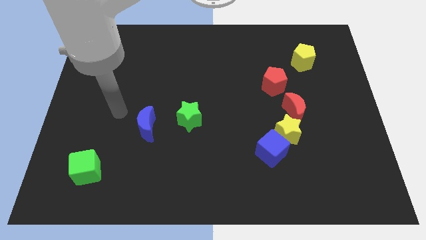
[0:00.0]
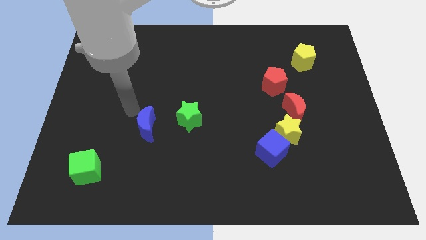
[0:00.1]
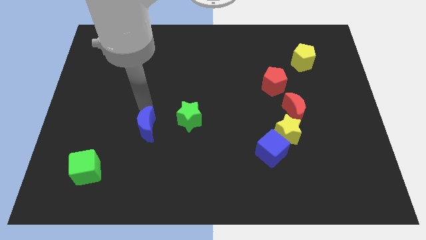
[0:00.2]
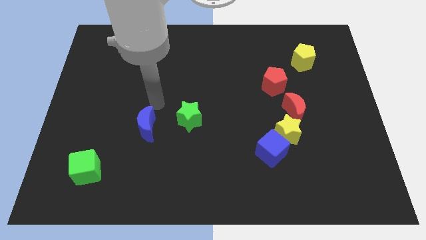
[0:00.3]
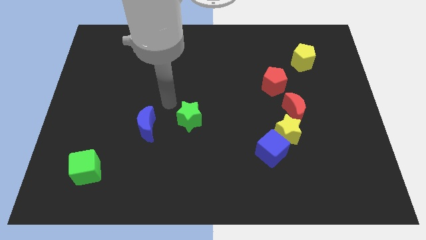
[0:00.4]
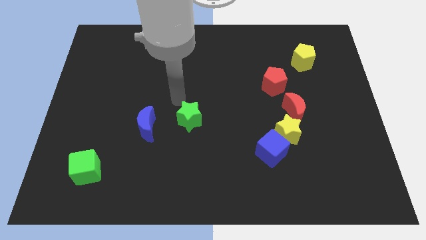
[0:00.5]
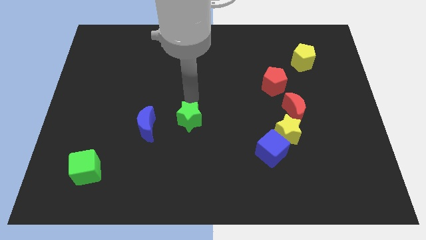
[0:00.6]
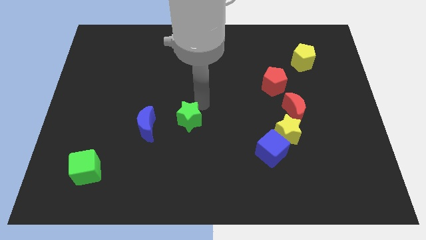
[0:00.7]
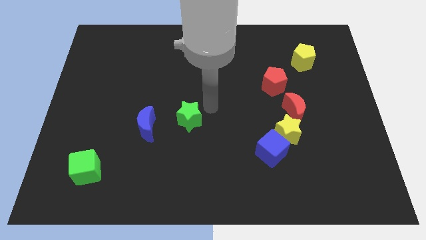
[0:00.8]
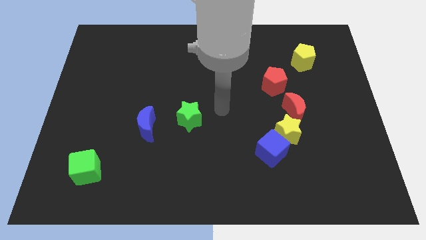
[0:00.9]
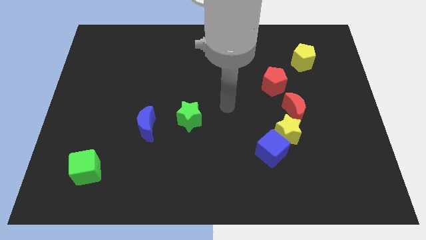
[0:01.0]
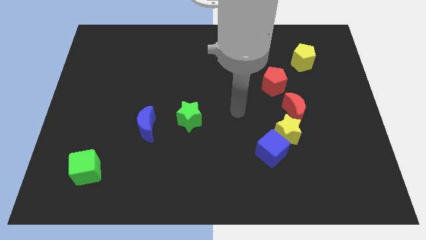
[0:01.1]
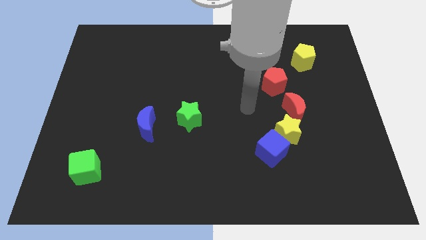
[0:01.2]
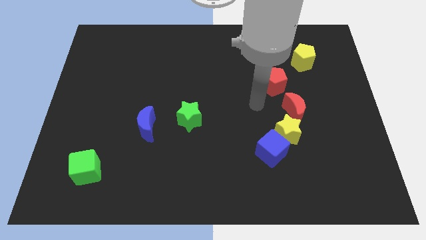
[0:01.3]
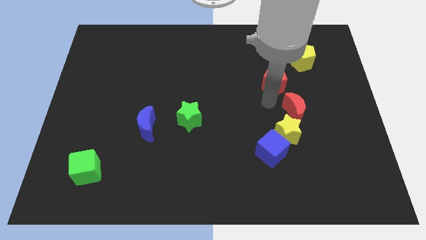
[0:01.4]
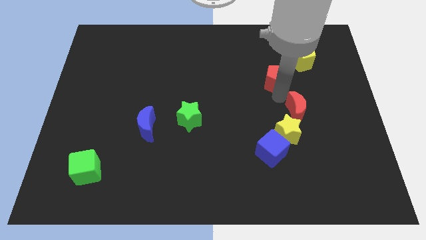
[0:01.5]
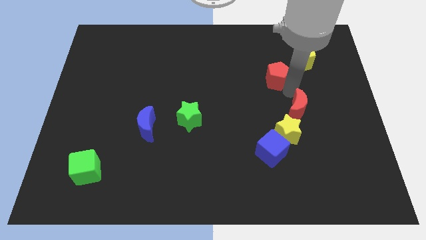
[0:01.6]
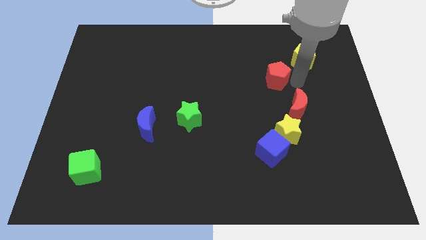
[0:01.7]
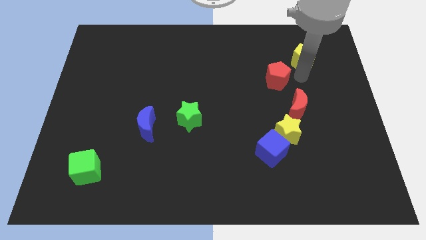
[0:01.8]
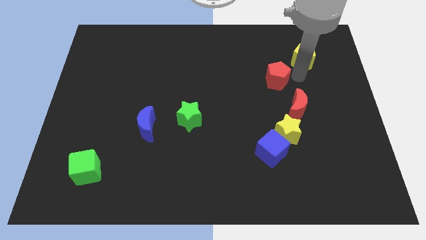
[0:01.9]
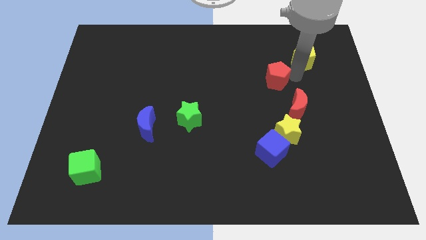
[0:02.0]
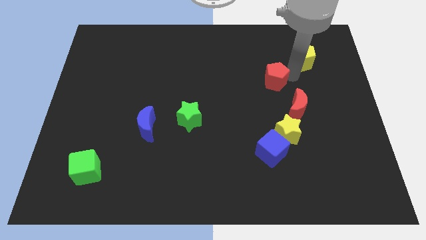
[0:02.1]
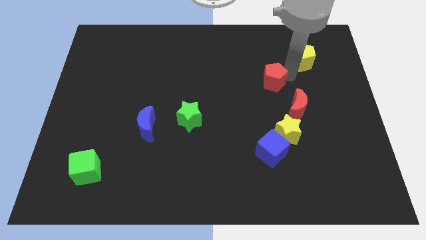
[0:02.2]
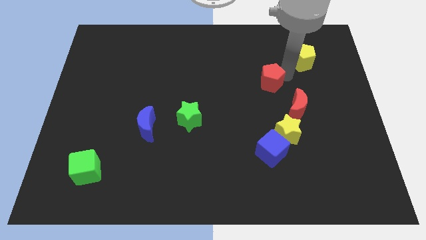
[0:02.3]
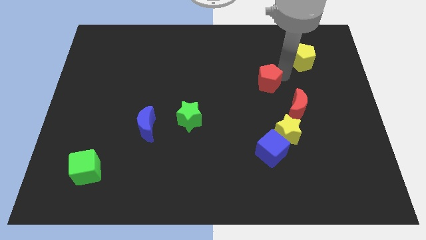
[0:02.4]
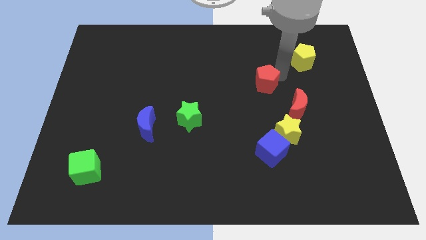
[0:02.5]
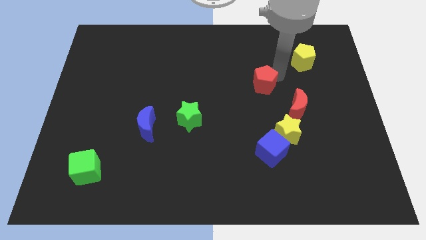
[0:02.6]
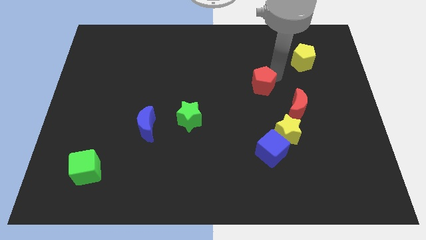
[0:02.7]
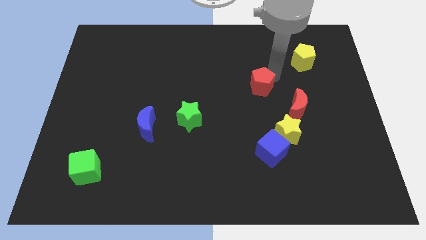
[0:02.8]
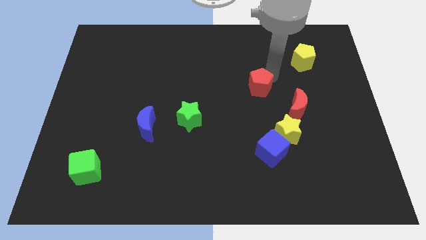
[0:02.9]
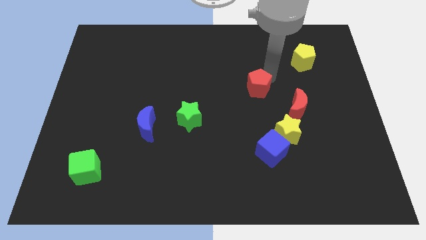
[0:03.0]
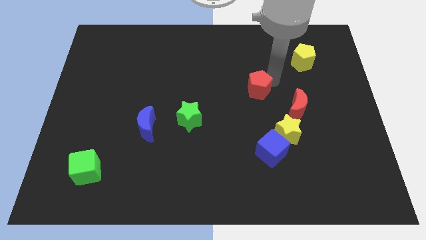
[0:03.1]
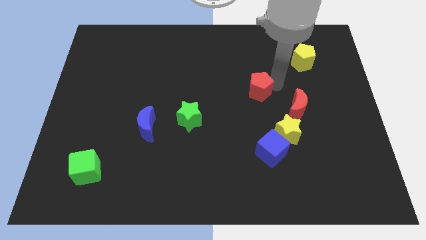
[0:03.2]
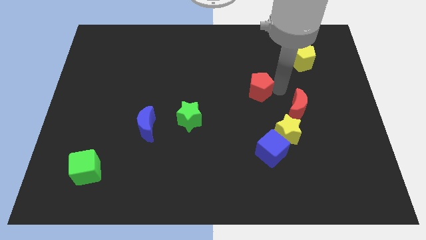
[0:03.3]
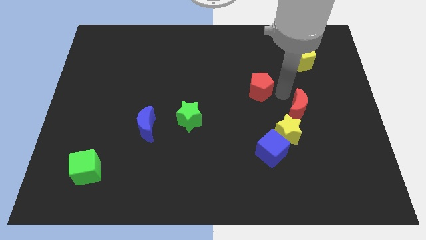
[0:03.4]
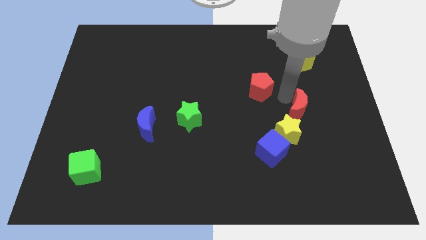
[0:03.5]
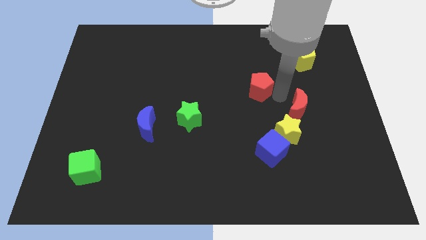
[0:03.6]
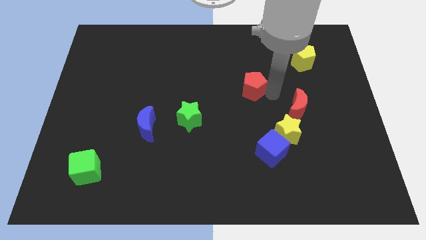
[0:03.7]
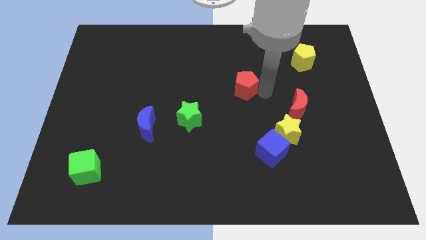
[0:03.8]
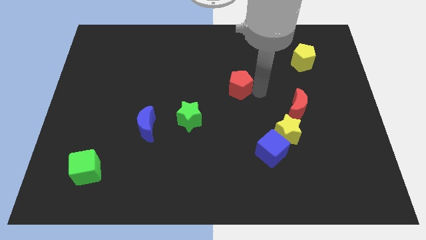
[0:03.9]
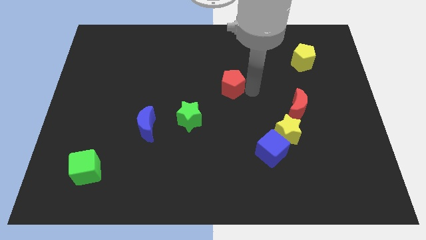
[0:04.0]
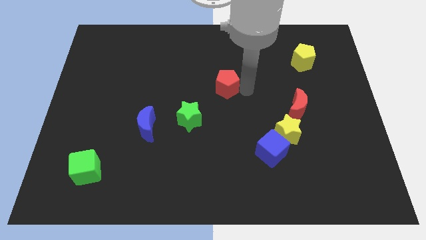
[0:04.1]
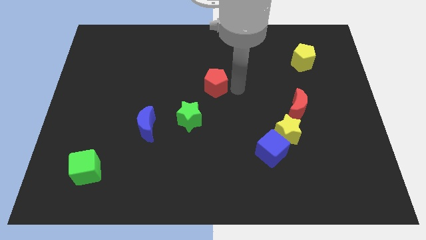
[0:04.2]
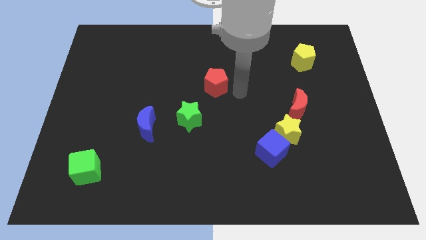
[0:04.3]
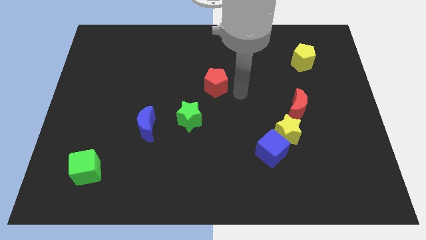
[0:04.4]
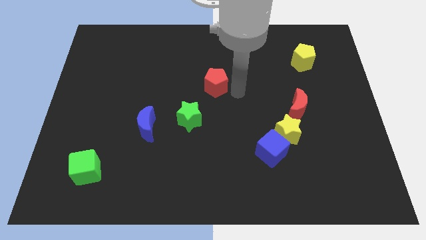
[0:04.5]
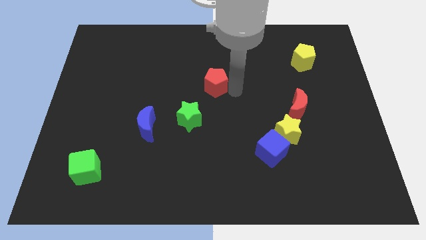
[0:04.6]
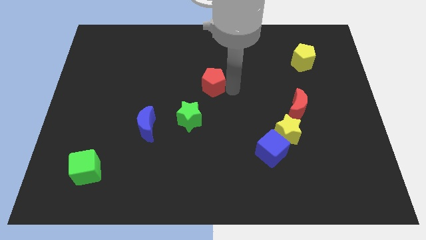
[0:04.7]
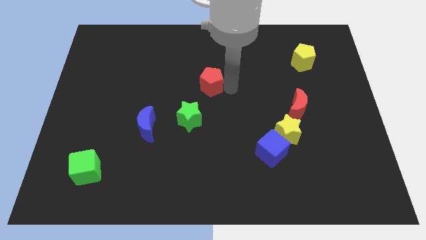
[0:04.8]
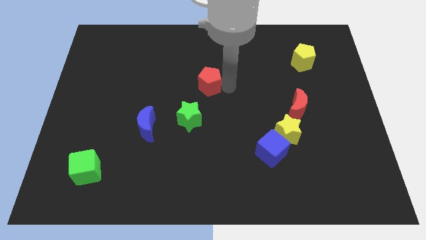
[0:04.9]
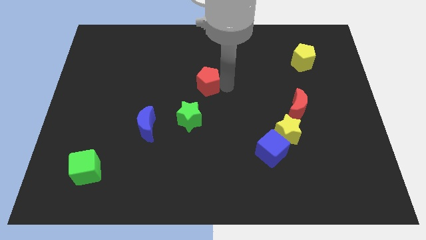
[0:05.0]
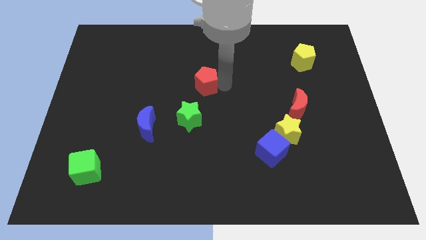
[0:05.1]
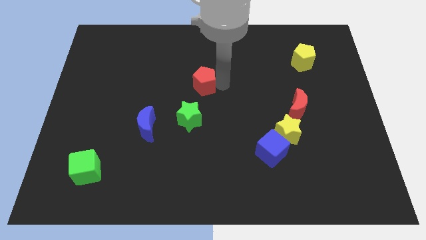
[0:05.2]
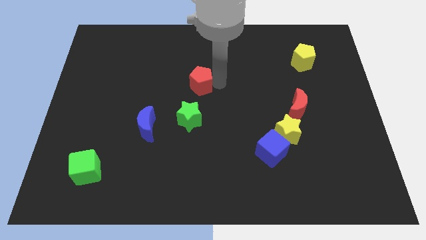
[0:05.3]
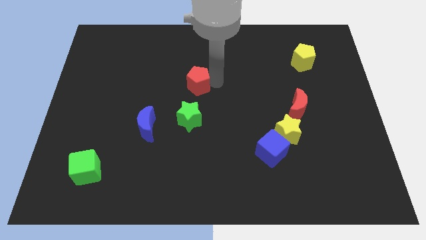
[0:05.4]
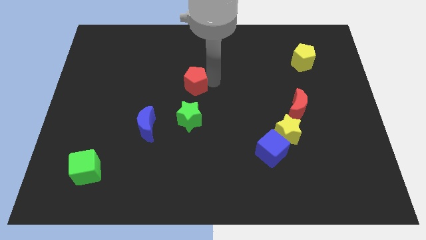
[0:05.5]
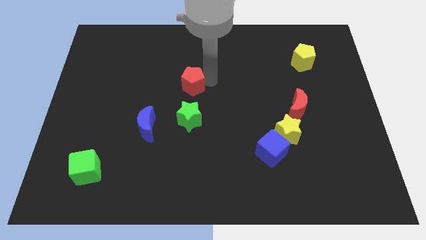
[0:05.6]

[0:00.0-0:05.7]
push the red pentagon left

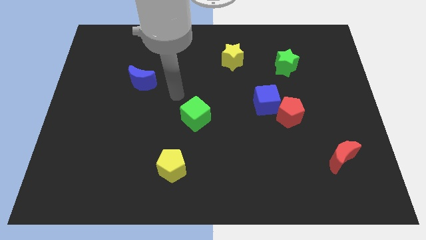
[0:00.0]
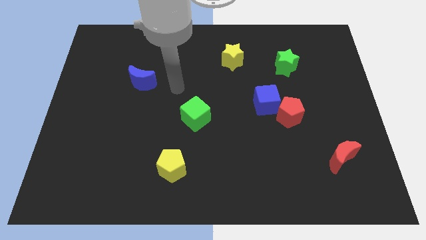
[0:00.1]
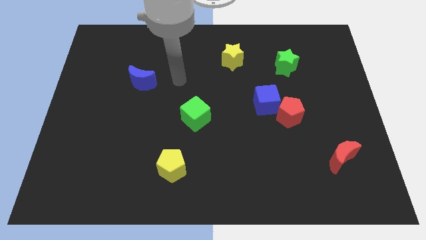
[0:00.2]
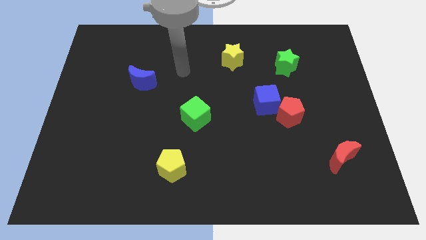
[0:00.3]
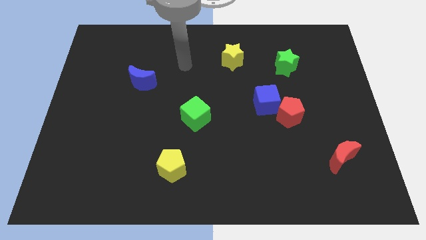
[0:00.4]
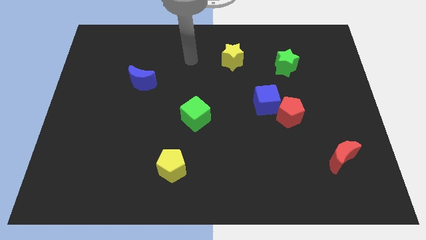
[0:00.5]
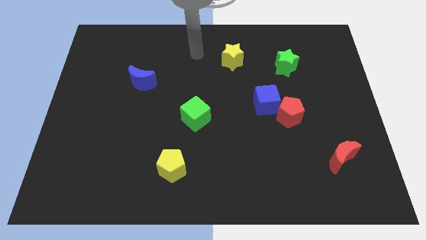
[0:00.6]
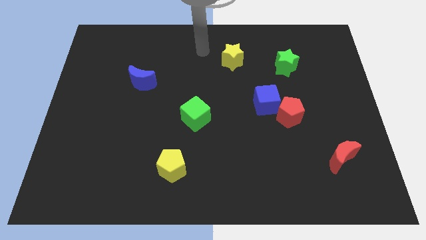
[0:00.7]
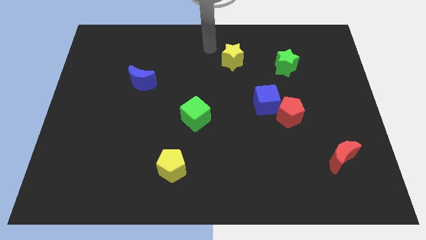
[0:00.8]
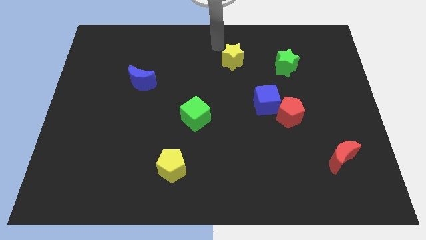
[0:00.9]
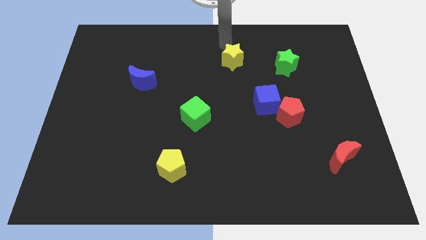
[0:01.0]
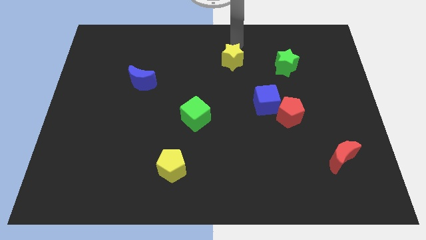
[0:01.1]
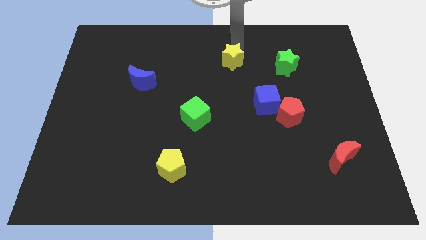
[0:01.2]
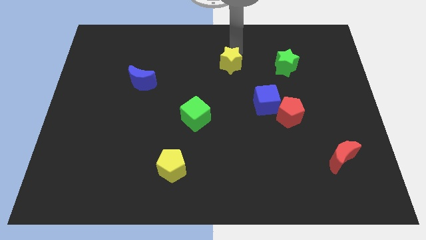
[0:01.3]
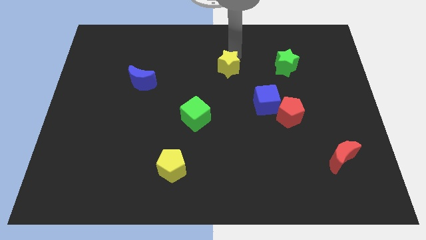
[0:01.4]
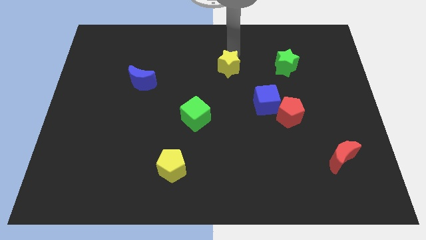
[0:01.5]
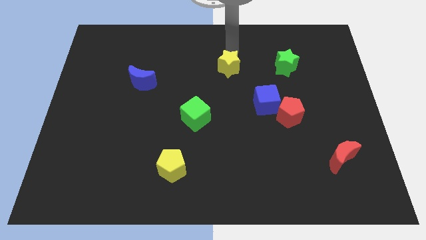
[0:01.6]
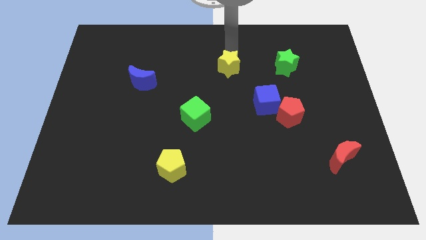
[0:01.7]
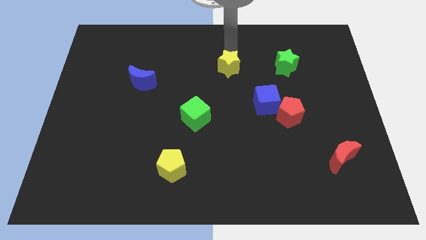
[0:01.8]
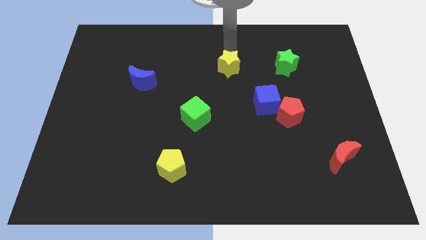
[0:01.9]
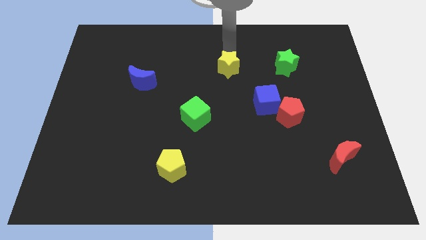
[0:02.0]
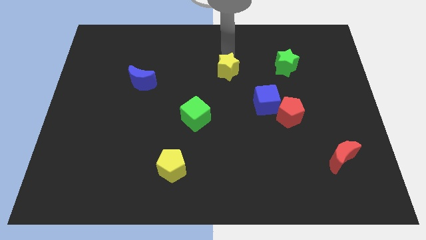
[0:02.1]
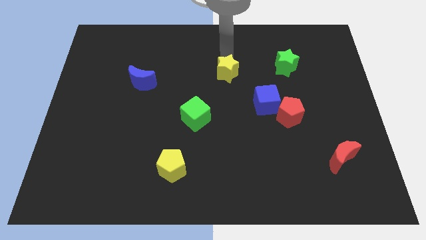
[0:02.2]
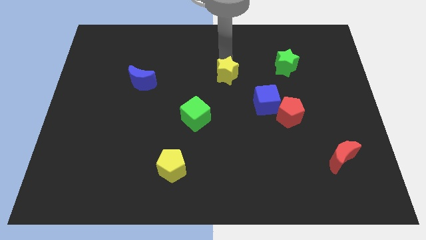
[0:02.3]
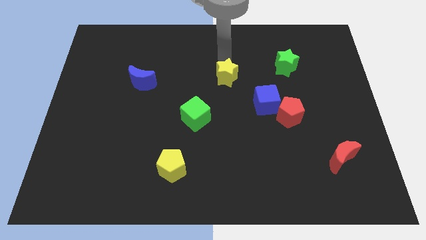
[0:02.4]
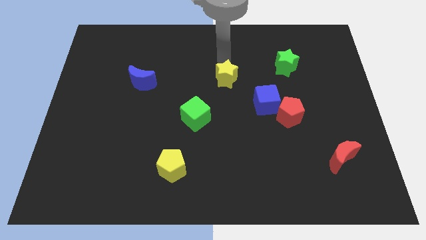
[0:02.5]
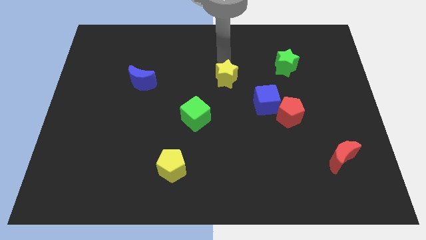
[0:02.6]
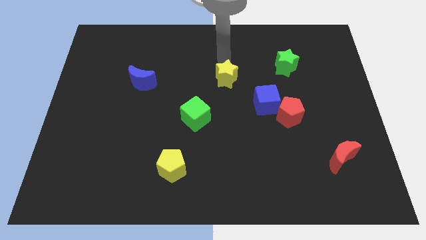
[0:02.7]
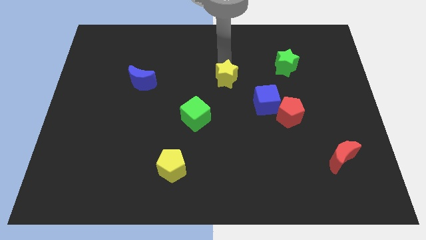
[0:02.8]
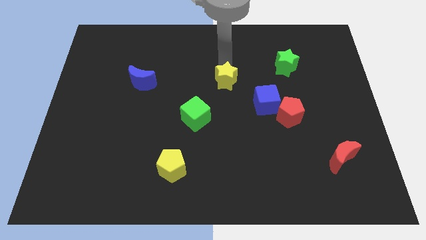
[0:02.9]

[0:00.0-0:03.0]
push the yellow star a bit down
